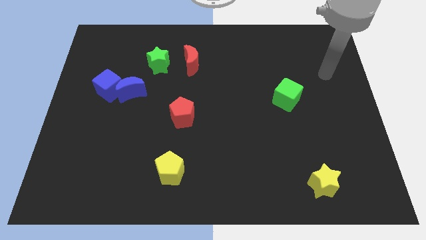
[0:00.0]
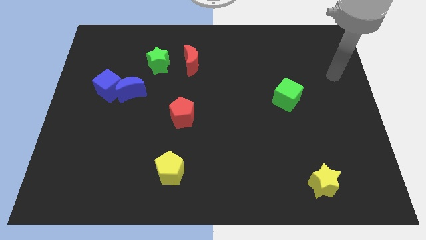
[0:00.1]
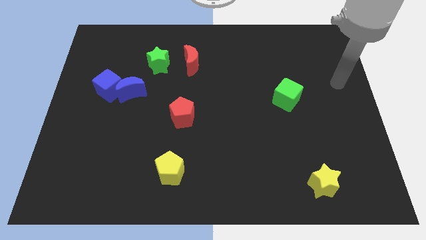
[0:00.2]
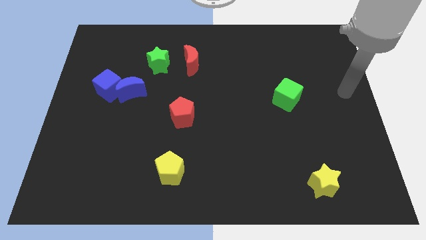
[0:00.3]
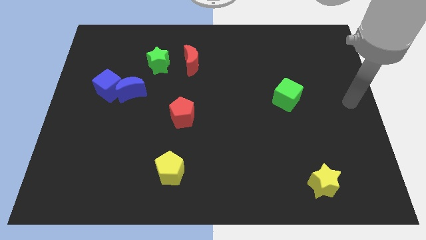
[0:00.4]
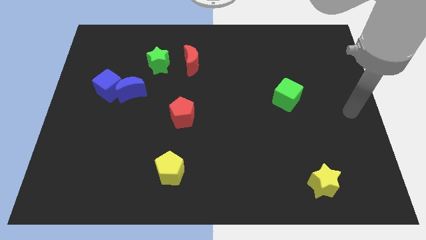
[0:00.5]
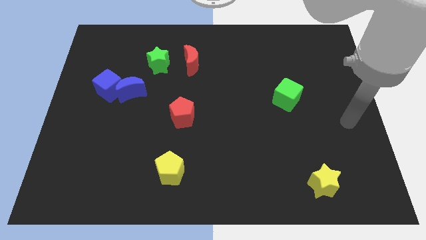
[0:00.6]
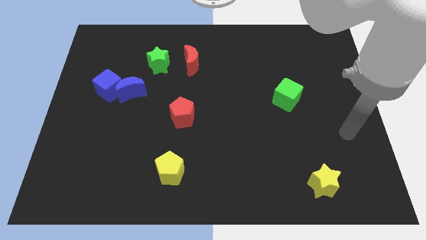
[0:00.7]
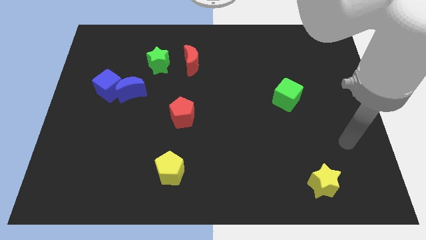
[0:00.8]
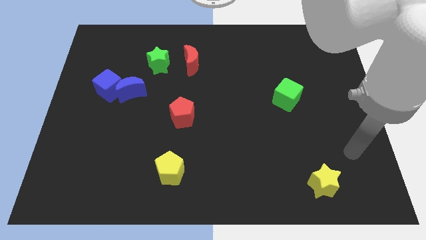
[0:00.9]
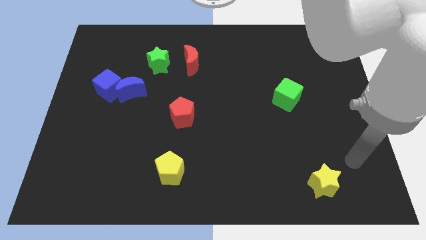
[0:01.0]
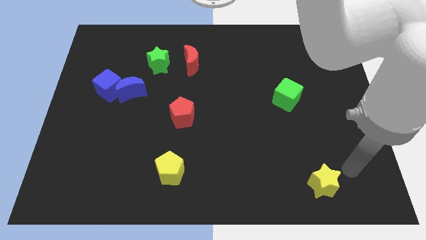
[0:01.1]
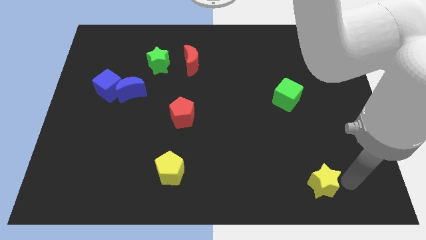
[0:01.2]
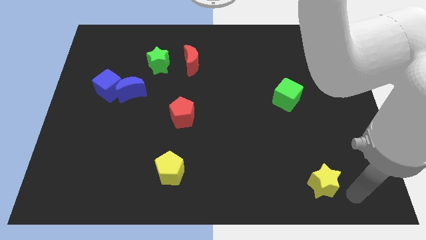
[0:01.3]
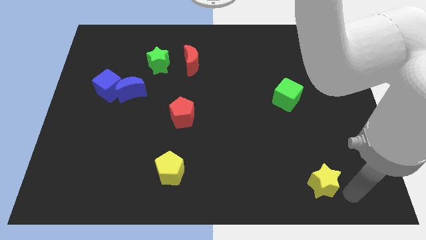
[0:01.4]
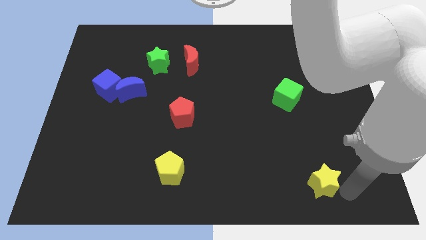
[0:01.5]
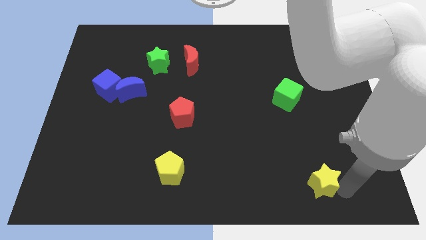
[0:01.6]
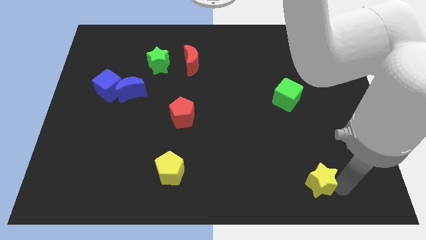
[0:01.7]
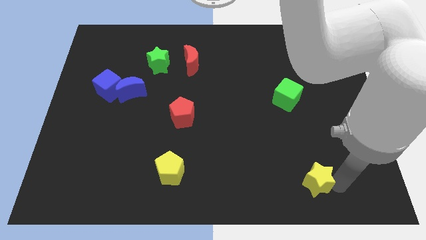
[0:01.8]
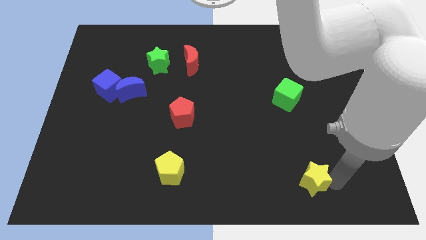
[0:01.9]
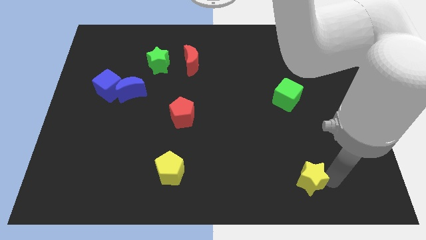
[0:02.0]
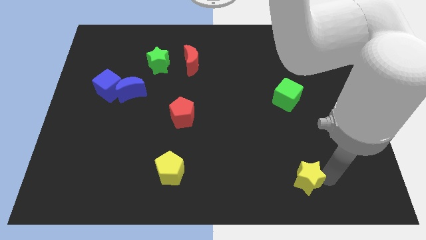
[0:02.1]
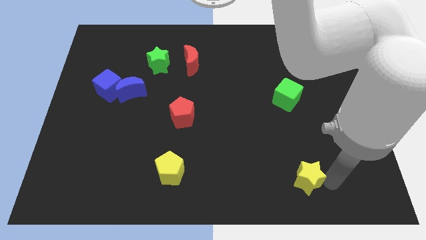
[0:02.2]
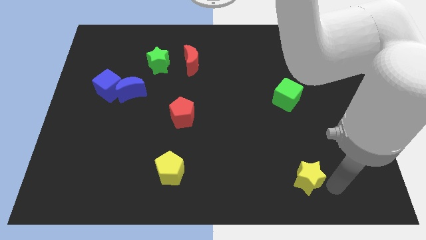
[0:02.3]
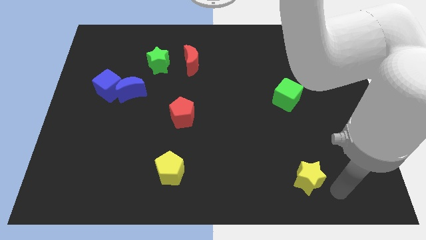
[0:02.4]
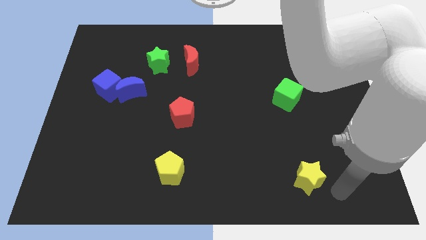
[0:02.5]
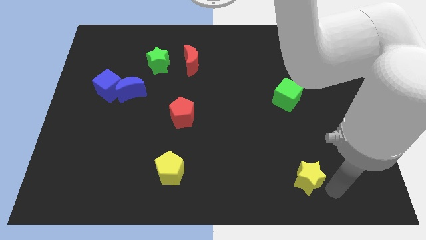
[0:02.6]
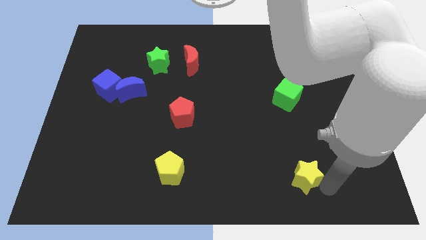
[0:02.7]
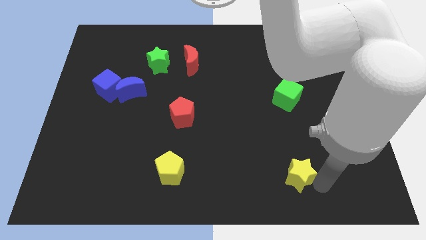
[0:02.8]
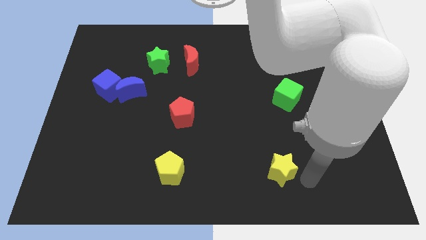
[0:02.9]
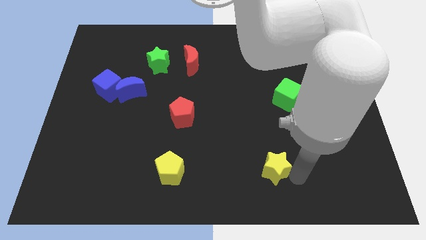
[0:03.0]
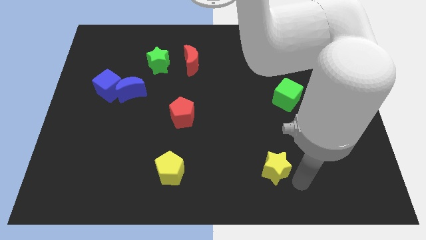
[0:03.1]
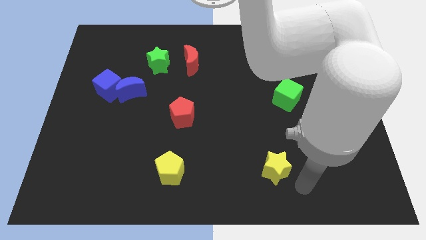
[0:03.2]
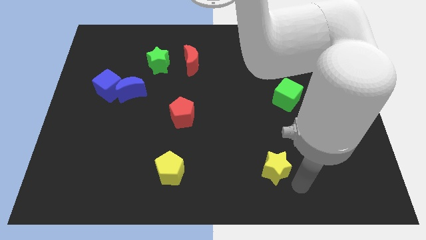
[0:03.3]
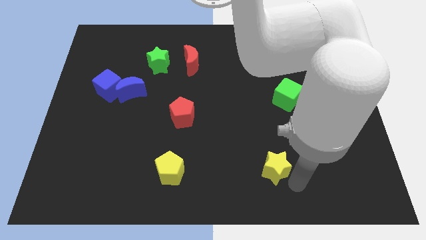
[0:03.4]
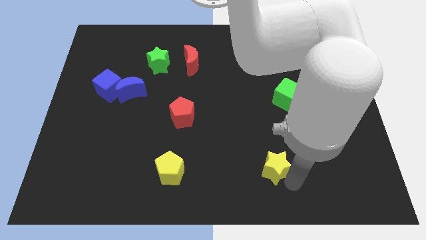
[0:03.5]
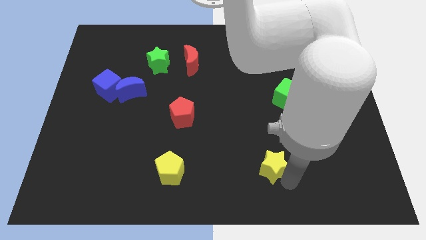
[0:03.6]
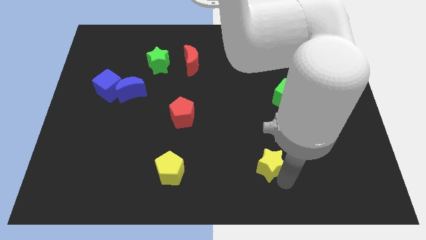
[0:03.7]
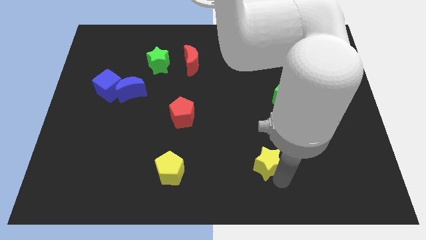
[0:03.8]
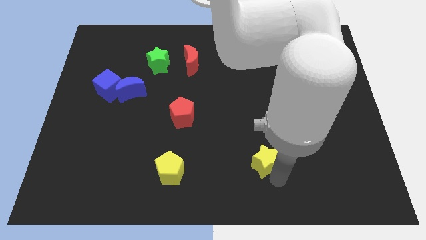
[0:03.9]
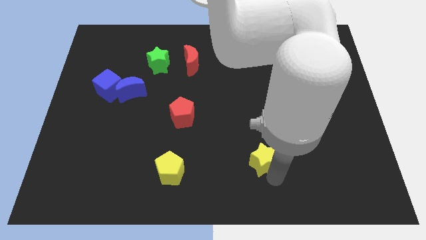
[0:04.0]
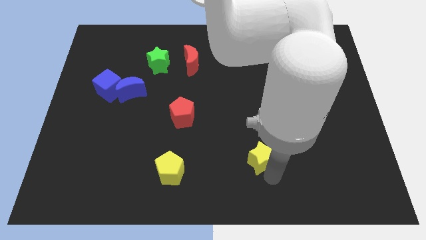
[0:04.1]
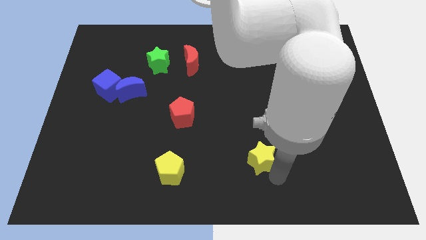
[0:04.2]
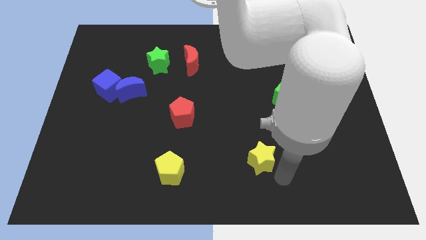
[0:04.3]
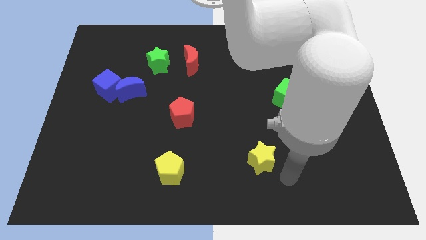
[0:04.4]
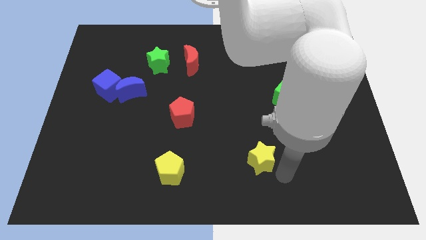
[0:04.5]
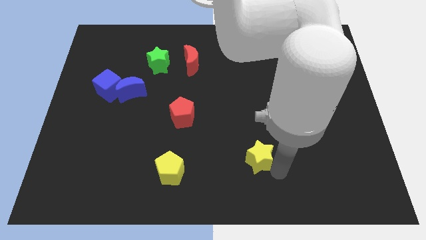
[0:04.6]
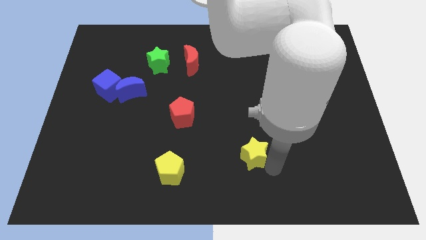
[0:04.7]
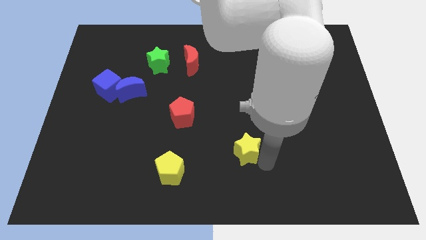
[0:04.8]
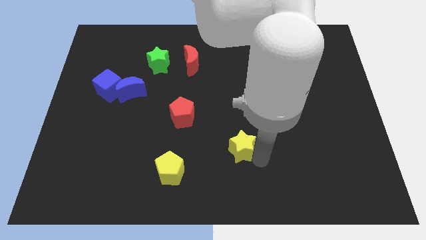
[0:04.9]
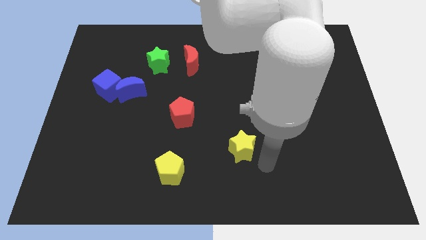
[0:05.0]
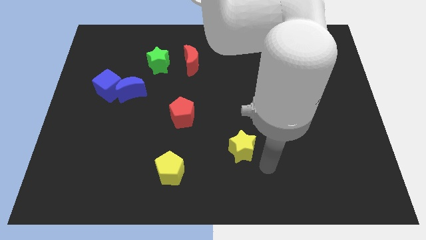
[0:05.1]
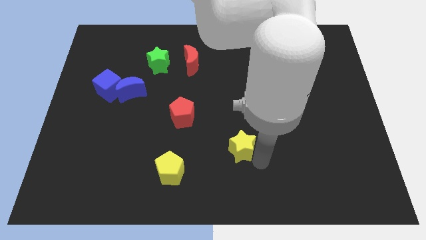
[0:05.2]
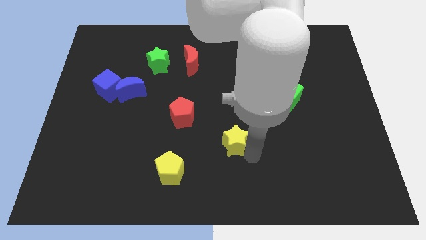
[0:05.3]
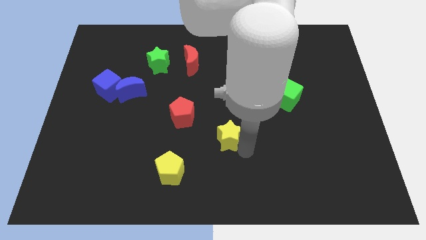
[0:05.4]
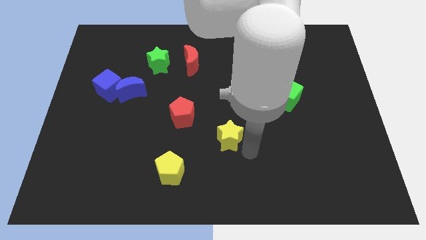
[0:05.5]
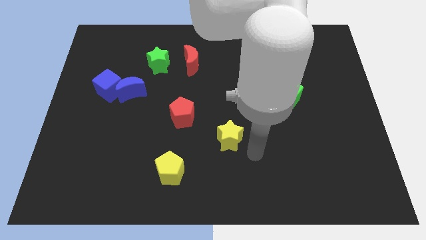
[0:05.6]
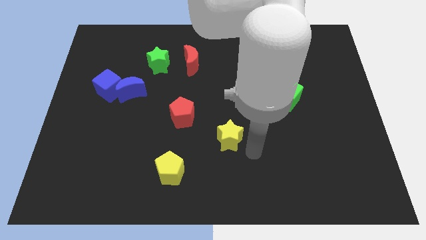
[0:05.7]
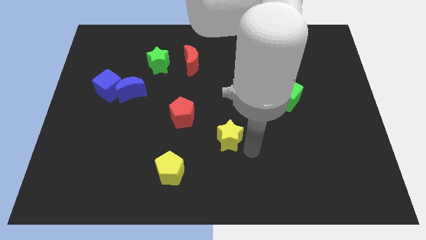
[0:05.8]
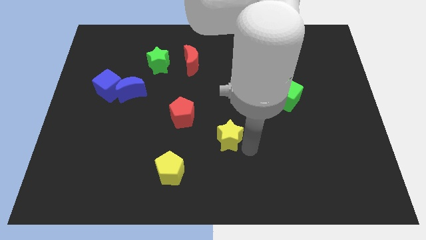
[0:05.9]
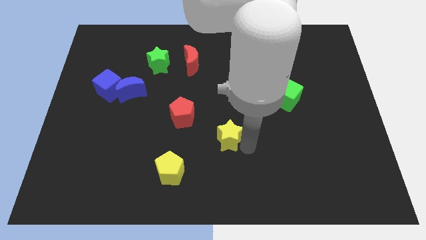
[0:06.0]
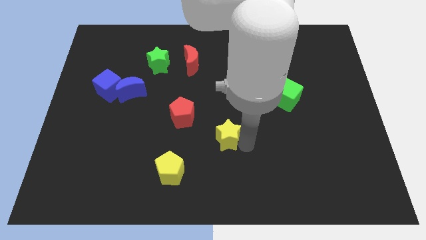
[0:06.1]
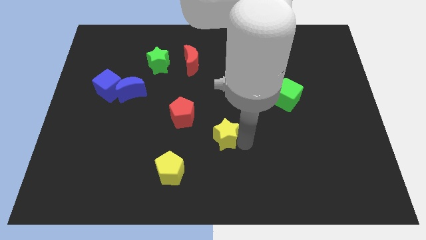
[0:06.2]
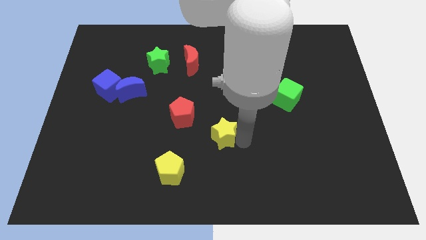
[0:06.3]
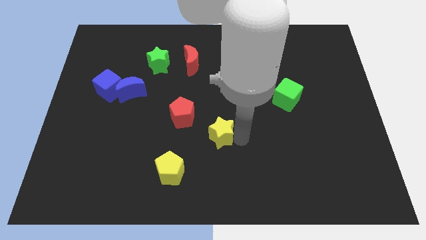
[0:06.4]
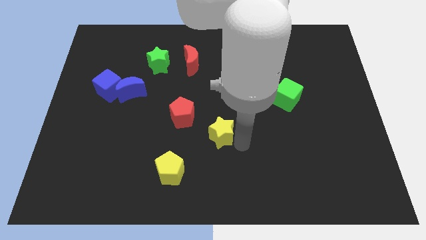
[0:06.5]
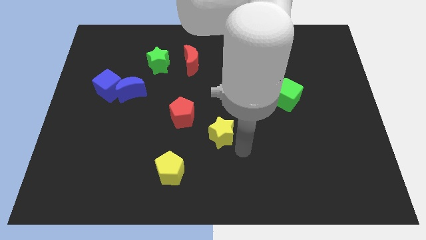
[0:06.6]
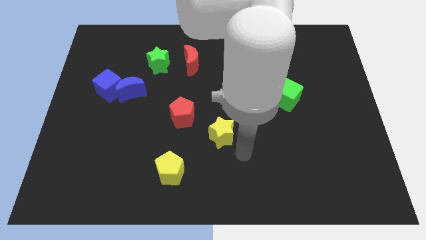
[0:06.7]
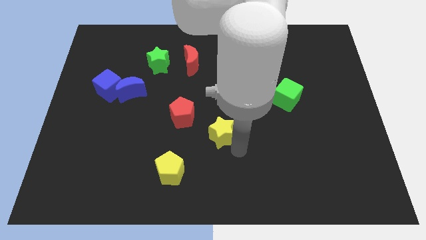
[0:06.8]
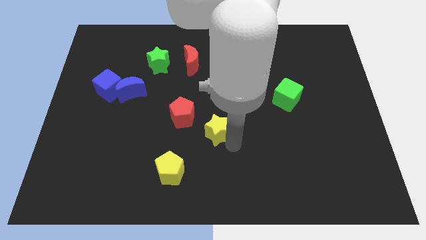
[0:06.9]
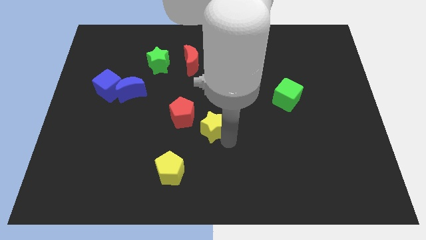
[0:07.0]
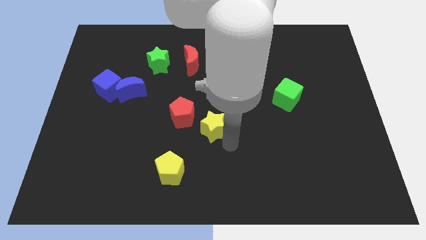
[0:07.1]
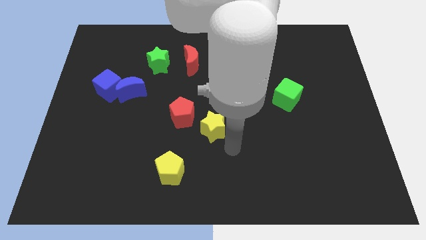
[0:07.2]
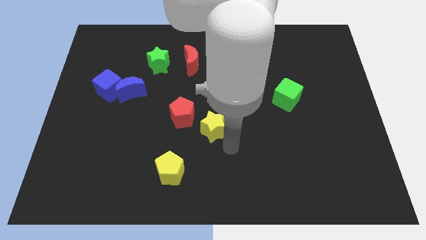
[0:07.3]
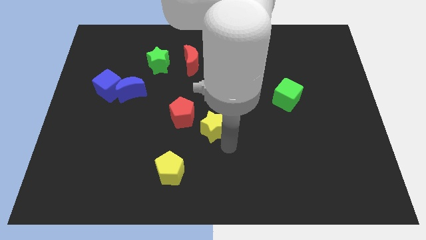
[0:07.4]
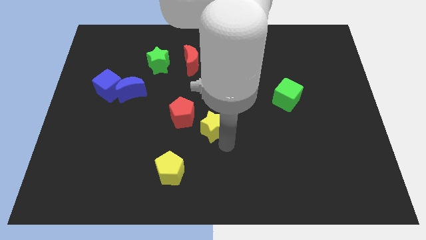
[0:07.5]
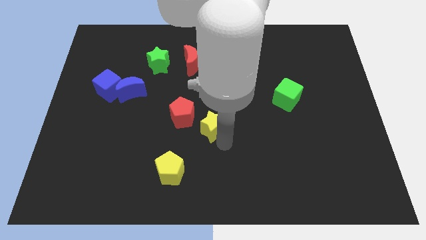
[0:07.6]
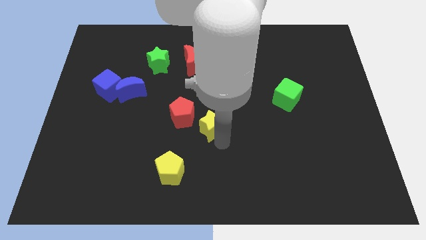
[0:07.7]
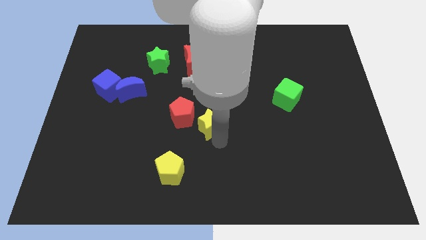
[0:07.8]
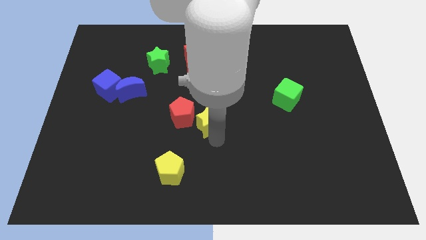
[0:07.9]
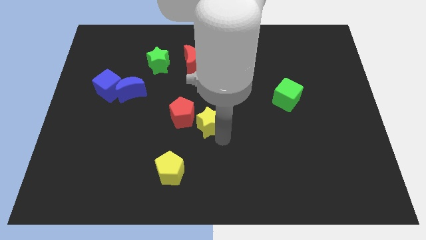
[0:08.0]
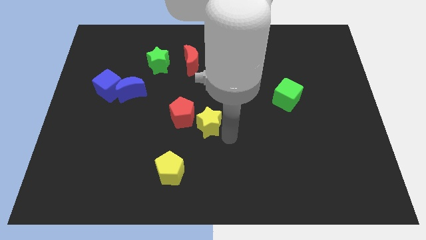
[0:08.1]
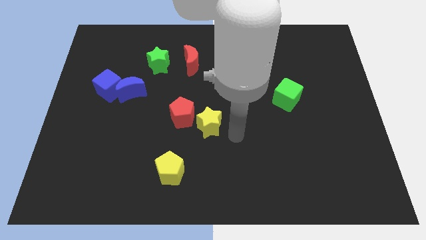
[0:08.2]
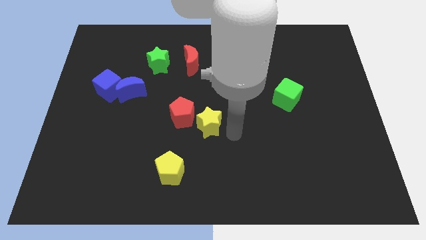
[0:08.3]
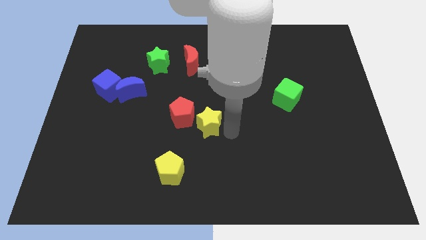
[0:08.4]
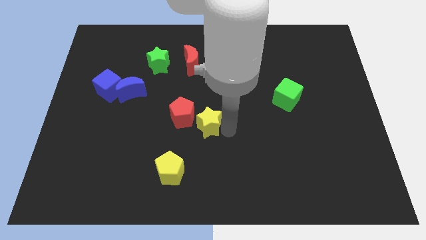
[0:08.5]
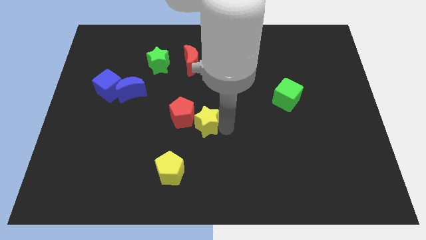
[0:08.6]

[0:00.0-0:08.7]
move the yellow star towards the red pentagon
